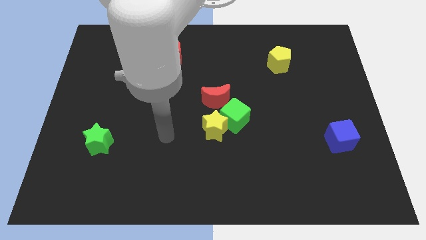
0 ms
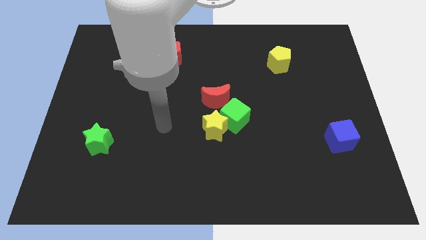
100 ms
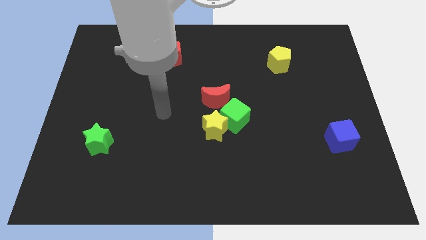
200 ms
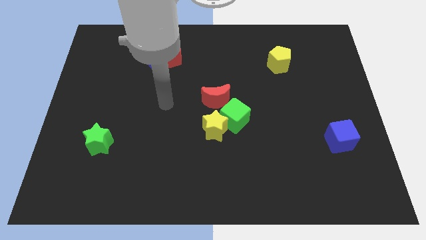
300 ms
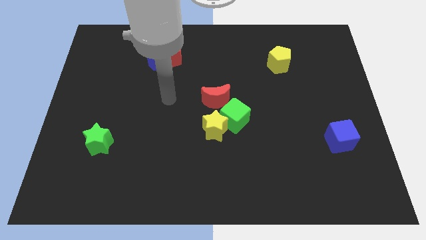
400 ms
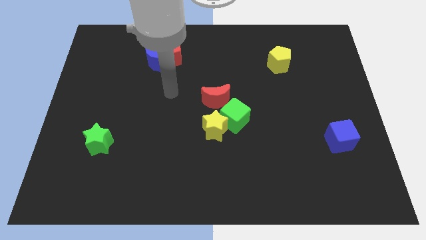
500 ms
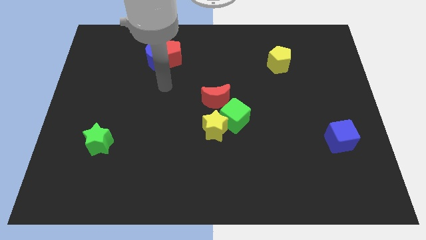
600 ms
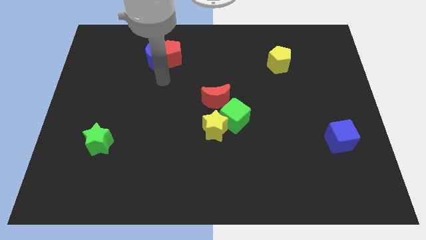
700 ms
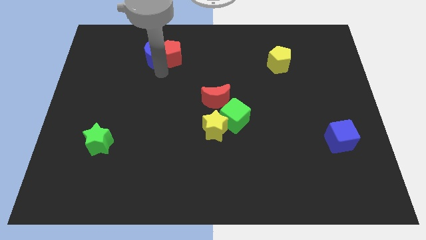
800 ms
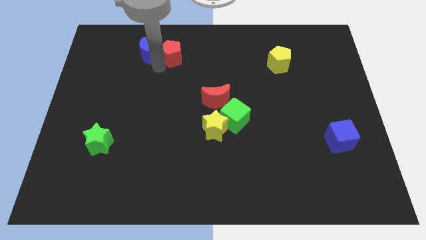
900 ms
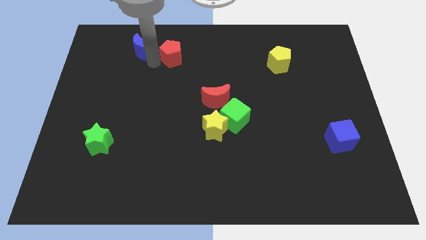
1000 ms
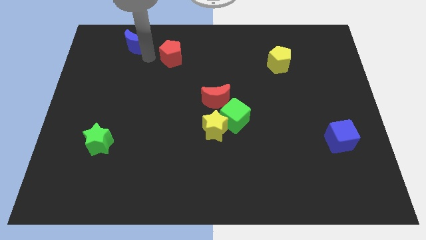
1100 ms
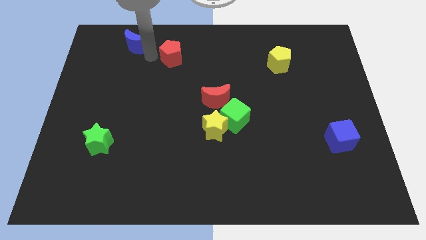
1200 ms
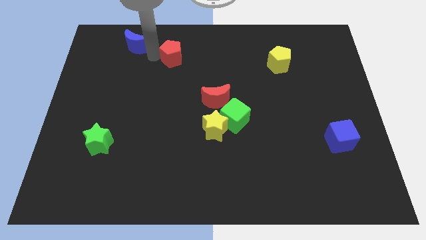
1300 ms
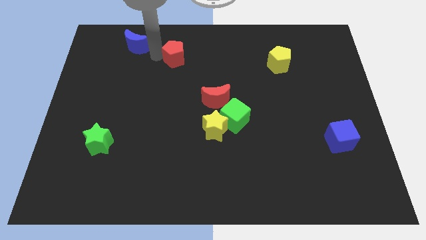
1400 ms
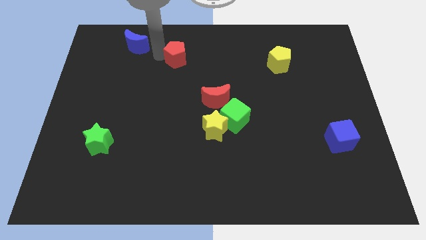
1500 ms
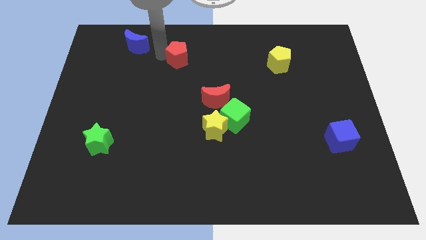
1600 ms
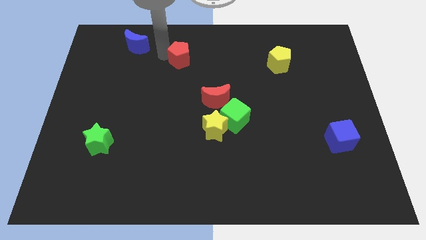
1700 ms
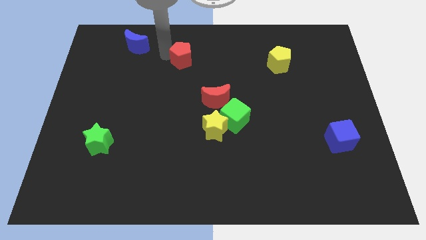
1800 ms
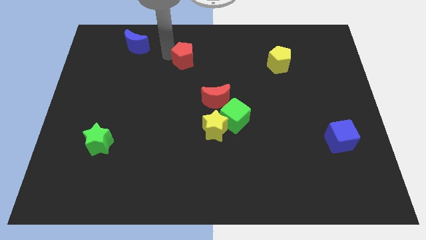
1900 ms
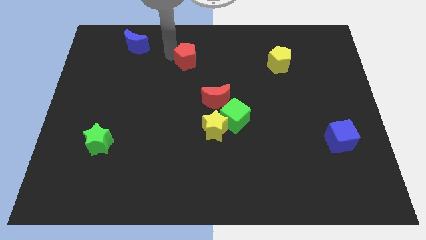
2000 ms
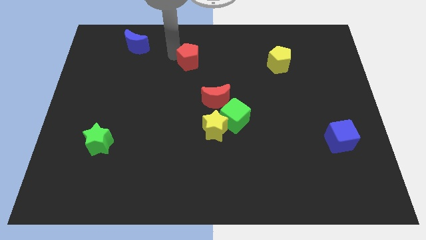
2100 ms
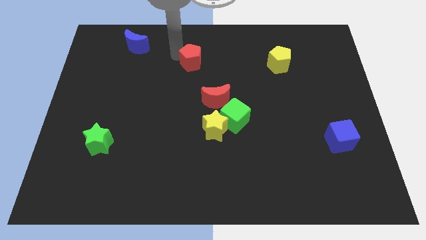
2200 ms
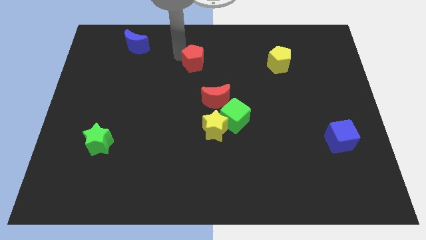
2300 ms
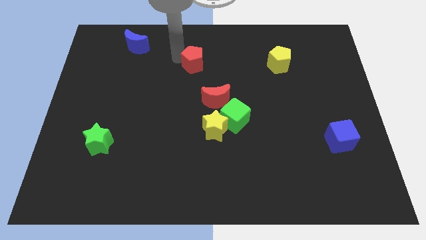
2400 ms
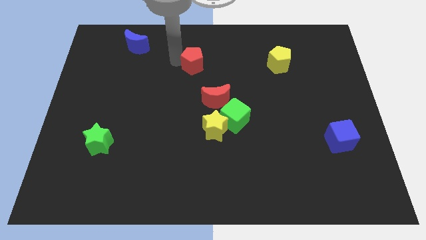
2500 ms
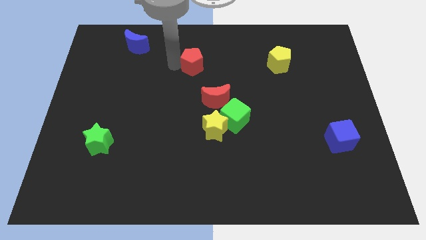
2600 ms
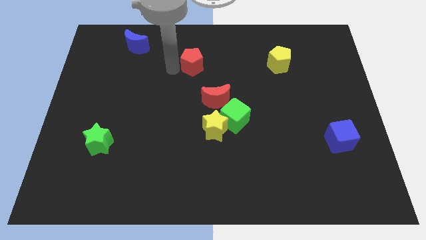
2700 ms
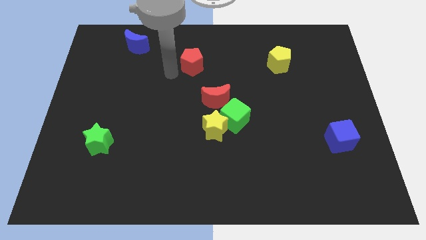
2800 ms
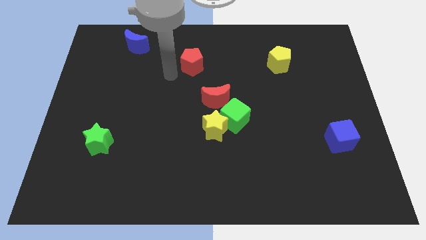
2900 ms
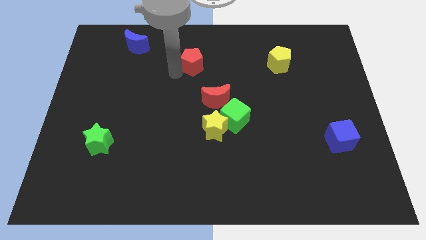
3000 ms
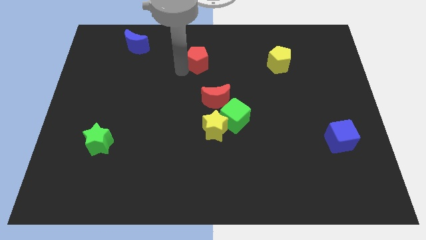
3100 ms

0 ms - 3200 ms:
slightly push the red pentagon to the right

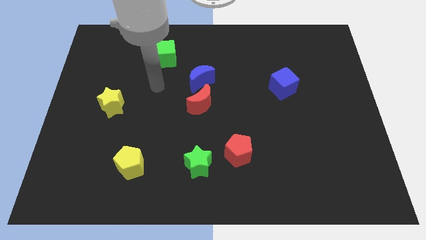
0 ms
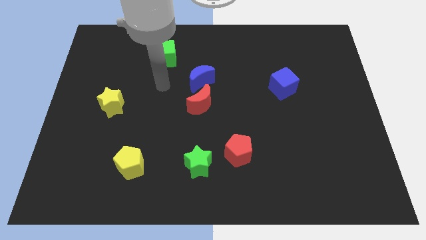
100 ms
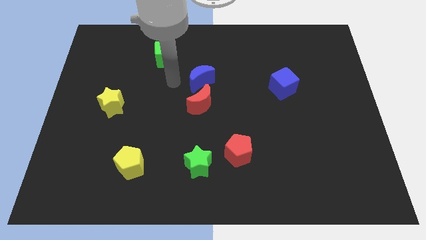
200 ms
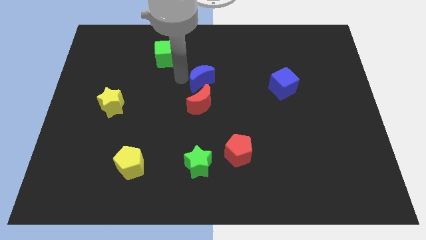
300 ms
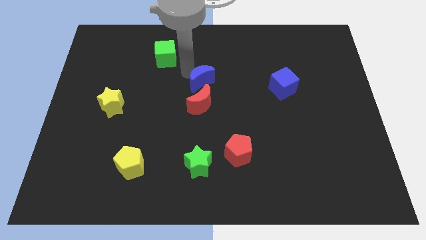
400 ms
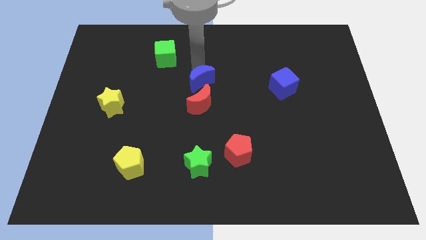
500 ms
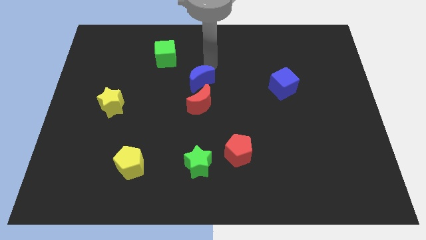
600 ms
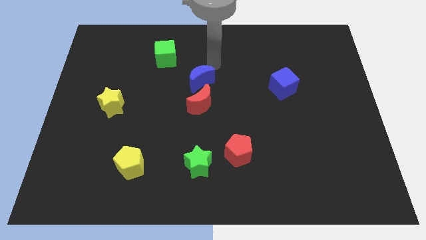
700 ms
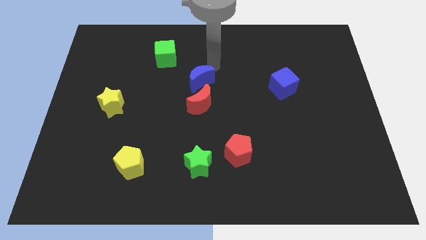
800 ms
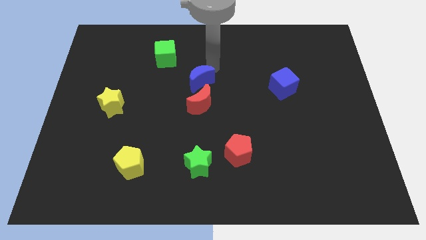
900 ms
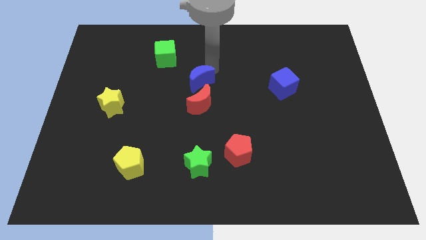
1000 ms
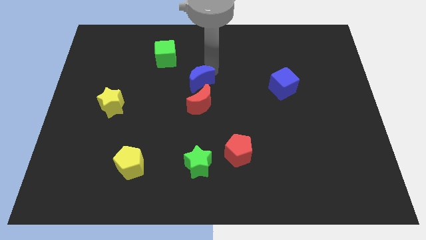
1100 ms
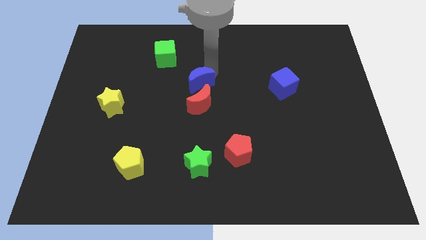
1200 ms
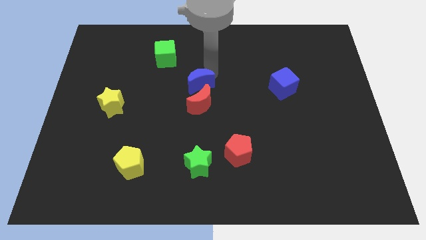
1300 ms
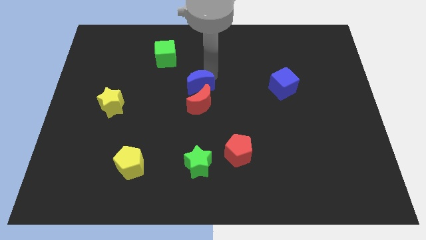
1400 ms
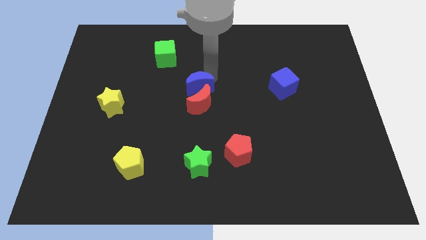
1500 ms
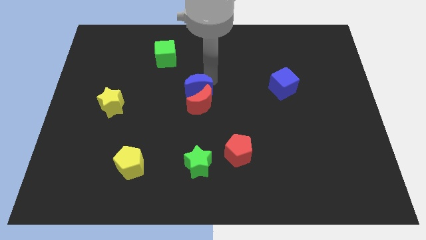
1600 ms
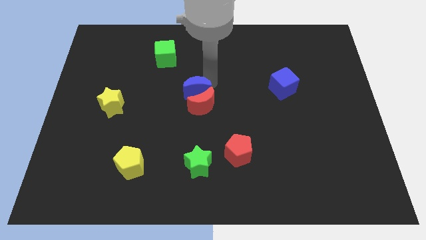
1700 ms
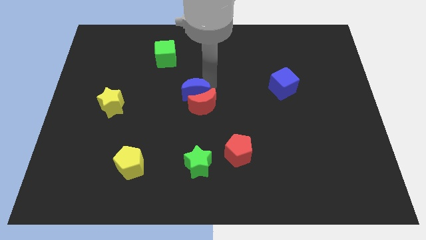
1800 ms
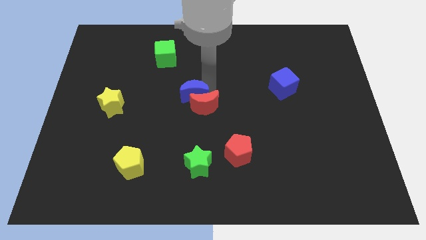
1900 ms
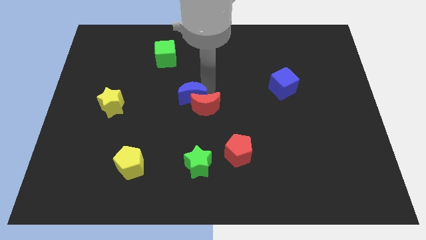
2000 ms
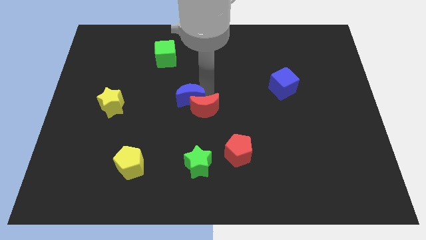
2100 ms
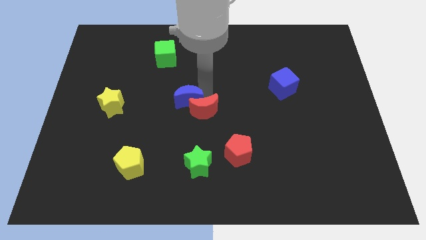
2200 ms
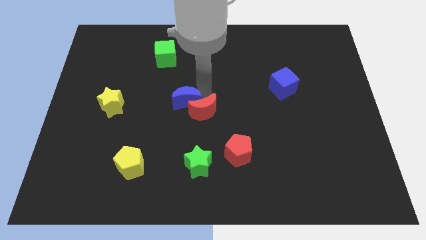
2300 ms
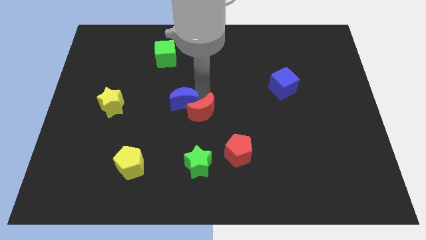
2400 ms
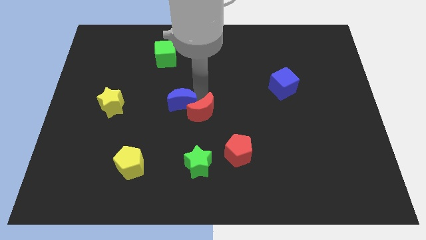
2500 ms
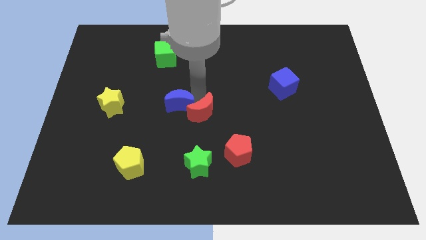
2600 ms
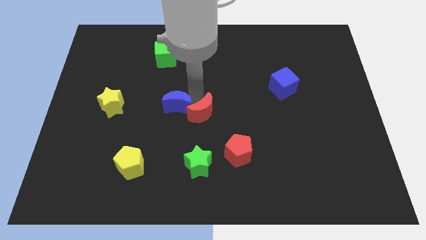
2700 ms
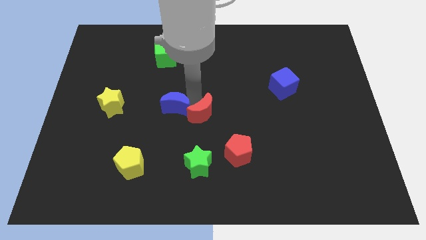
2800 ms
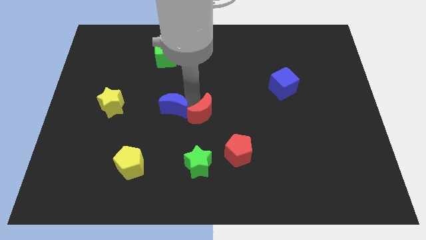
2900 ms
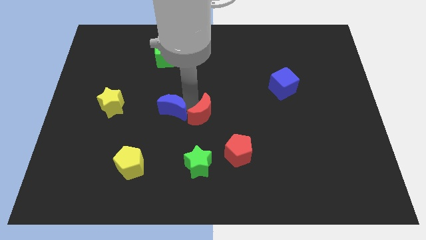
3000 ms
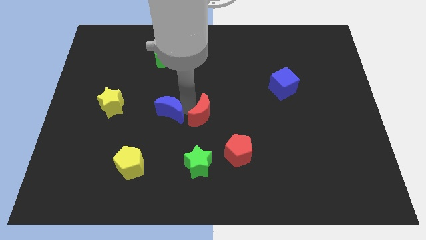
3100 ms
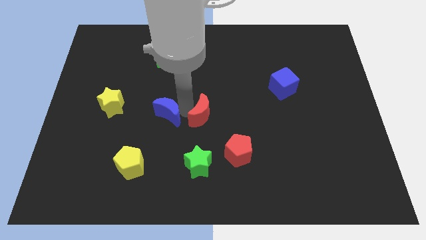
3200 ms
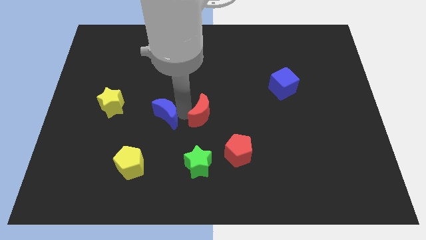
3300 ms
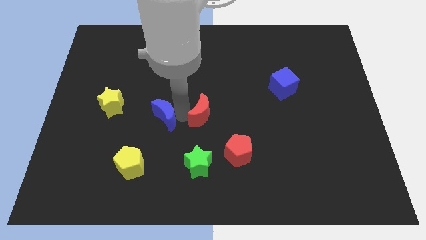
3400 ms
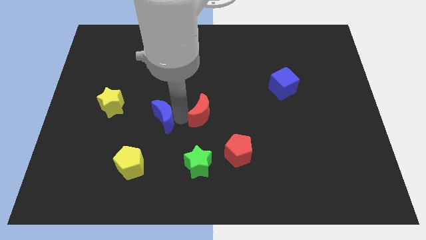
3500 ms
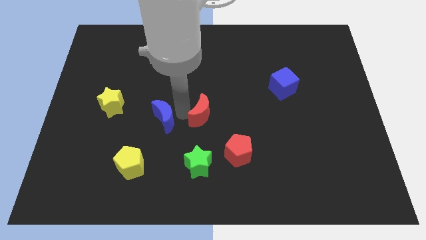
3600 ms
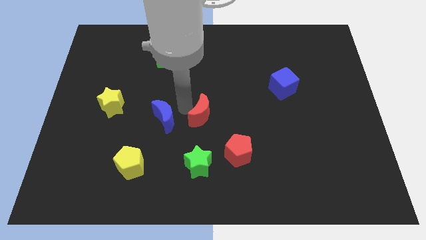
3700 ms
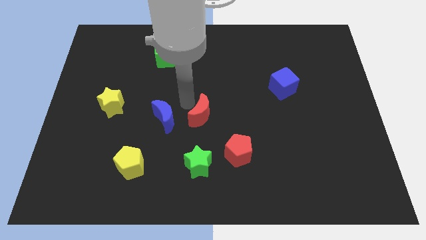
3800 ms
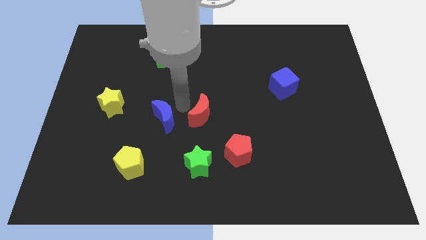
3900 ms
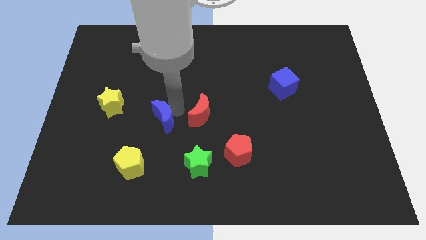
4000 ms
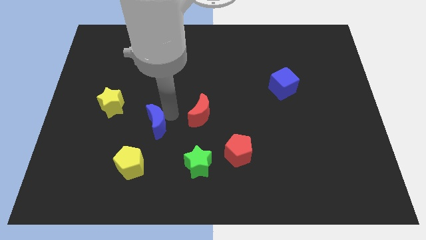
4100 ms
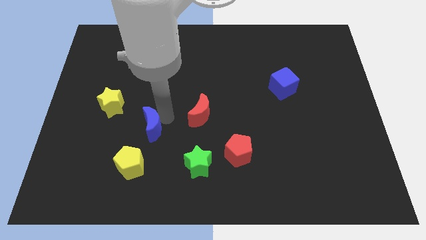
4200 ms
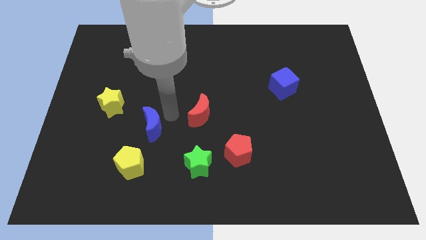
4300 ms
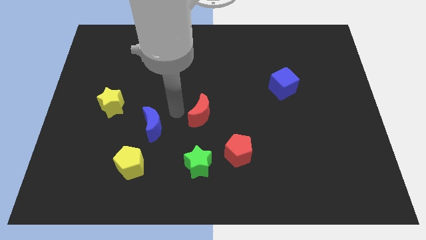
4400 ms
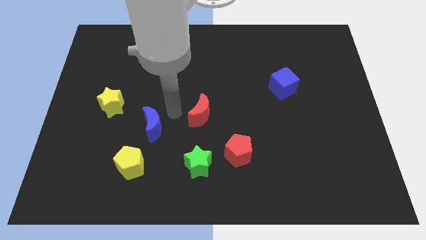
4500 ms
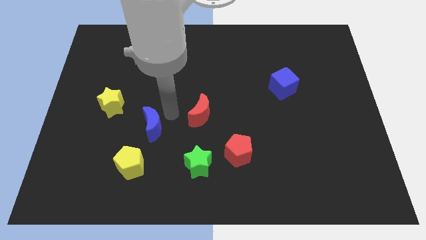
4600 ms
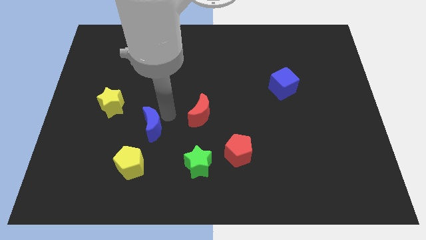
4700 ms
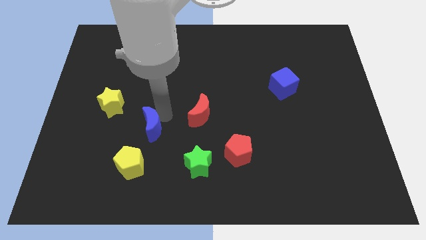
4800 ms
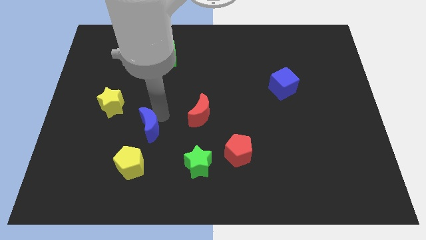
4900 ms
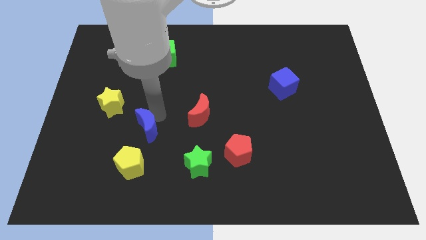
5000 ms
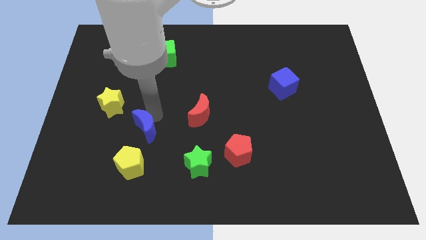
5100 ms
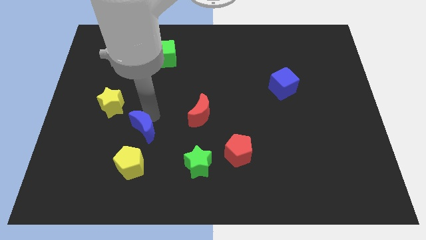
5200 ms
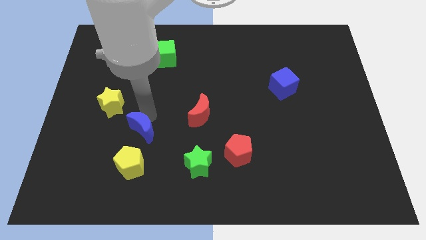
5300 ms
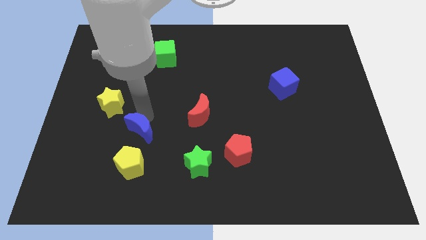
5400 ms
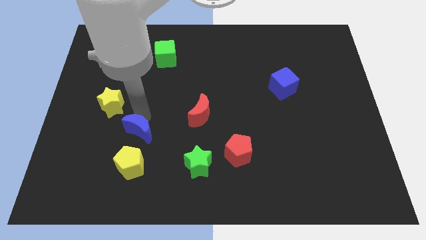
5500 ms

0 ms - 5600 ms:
slide the blue moon down and then left
